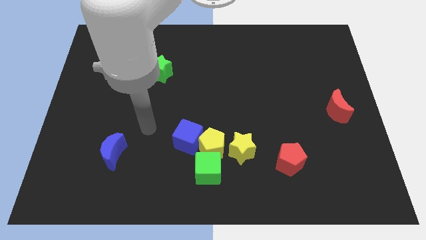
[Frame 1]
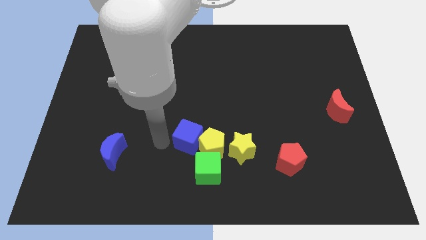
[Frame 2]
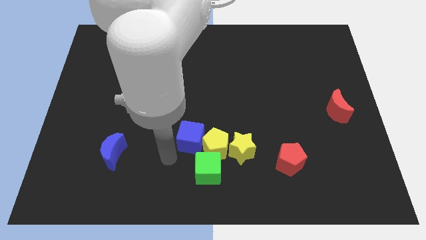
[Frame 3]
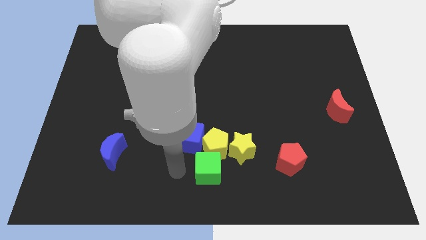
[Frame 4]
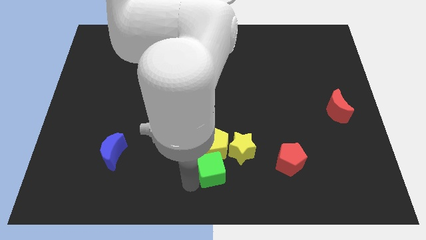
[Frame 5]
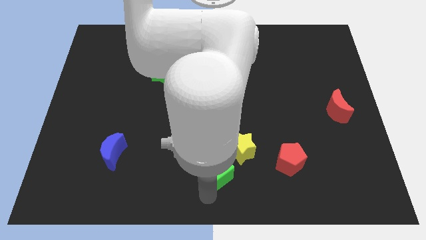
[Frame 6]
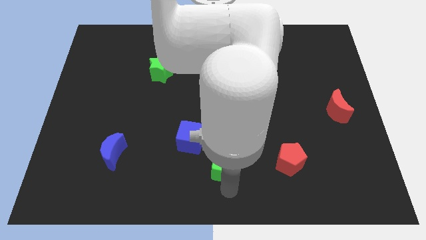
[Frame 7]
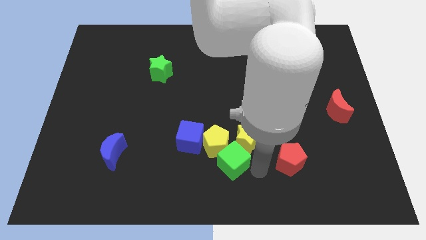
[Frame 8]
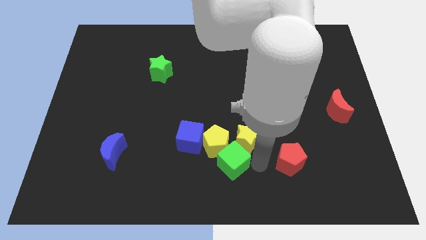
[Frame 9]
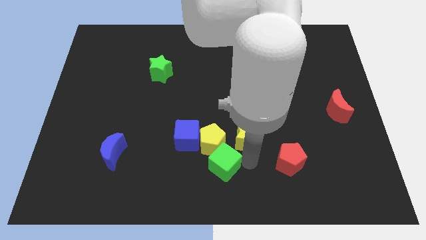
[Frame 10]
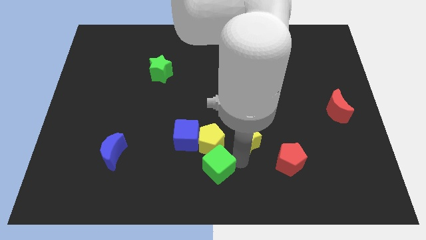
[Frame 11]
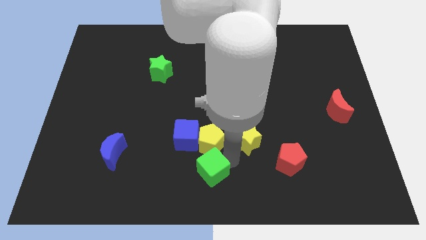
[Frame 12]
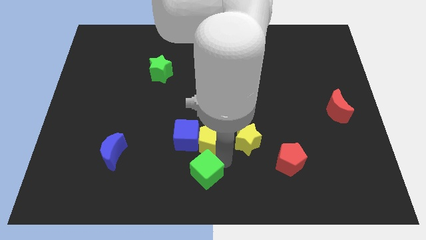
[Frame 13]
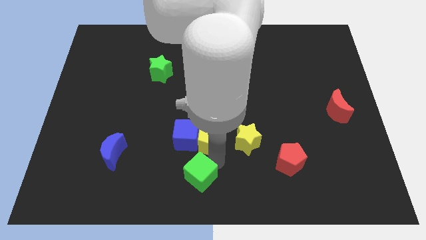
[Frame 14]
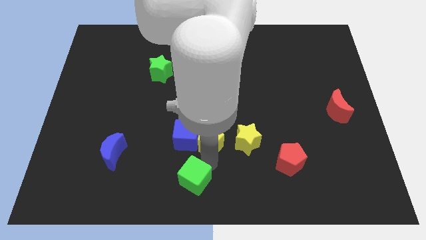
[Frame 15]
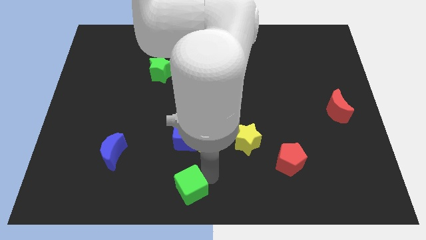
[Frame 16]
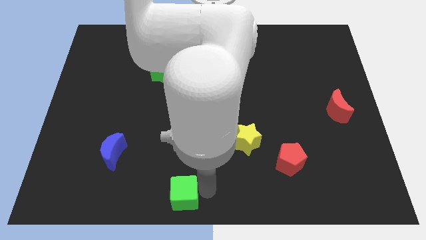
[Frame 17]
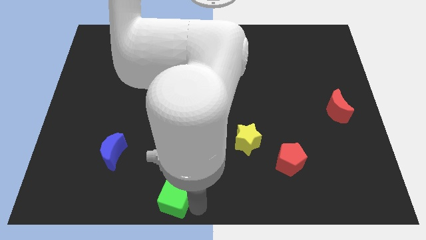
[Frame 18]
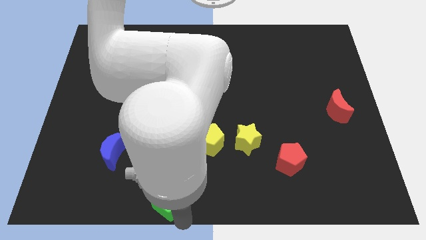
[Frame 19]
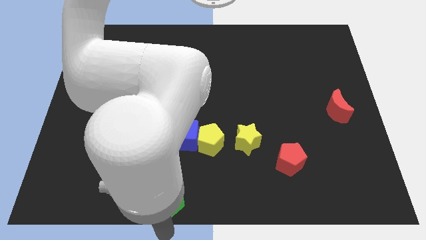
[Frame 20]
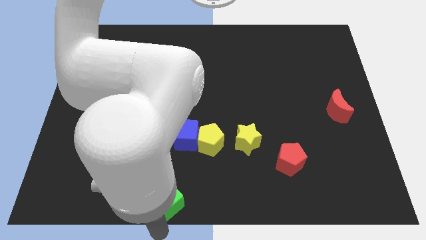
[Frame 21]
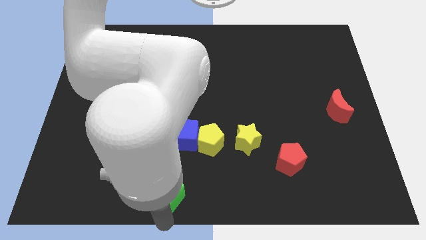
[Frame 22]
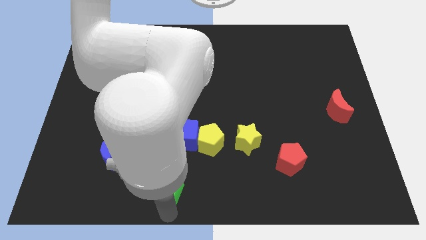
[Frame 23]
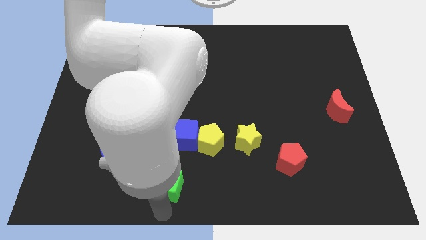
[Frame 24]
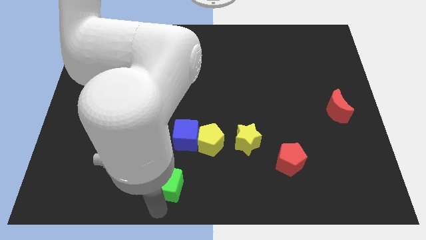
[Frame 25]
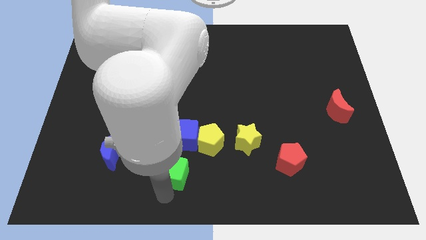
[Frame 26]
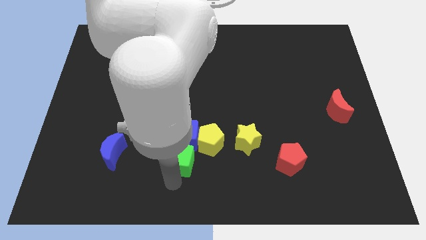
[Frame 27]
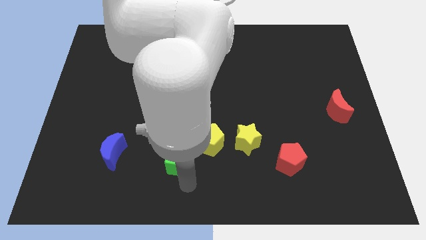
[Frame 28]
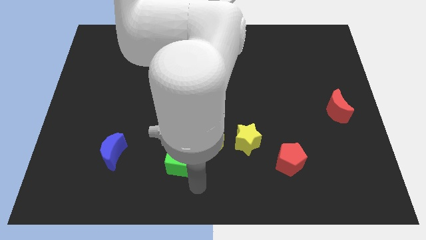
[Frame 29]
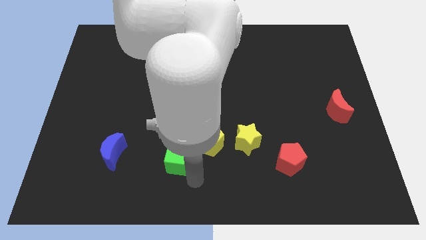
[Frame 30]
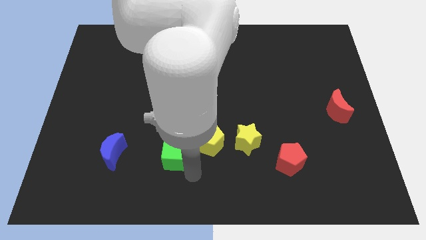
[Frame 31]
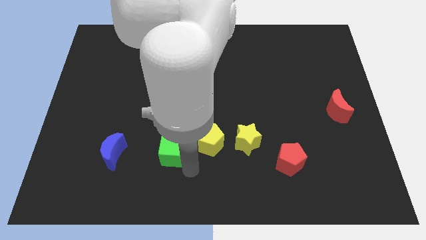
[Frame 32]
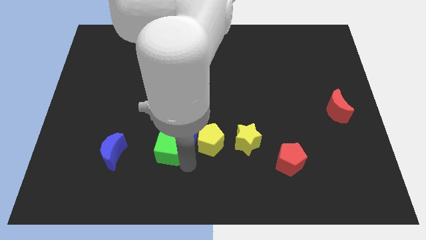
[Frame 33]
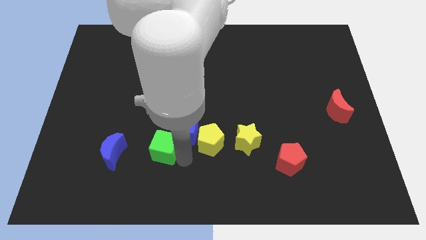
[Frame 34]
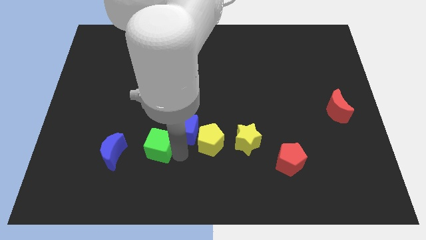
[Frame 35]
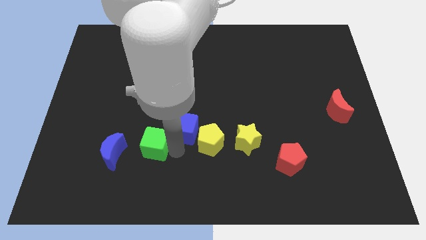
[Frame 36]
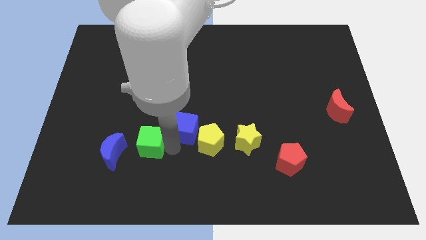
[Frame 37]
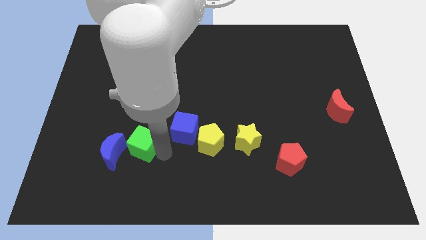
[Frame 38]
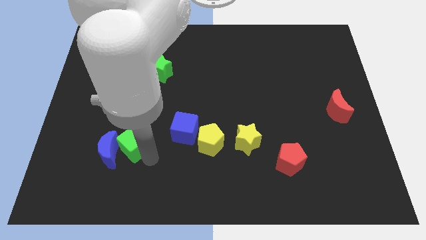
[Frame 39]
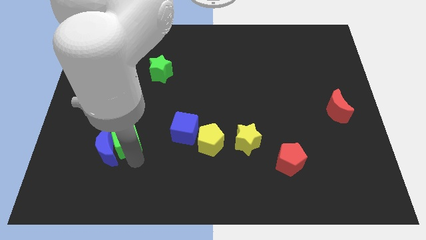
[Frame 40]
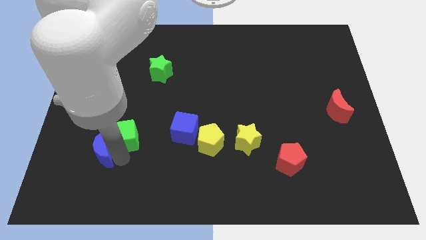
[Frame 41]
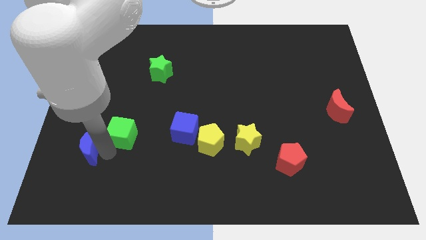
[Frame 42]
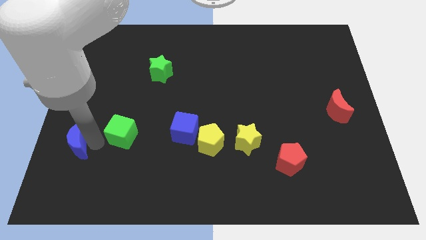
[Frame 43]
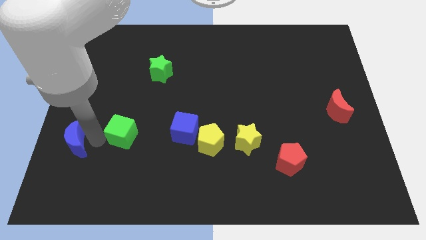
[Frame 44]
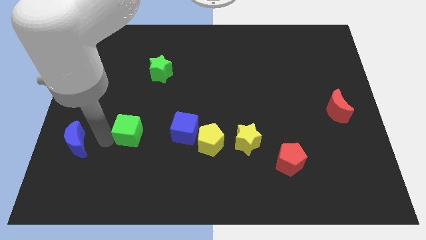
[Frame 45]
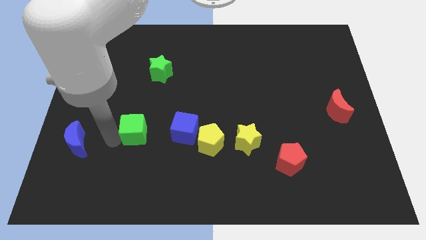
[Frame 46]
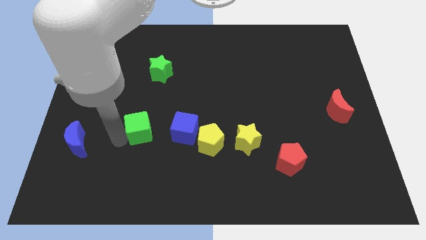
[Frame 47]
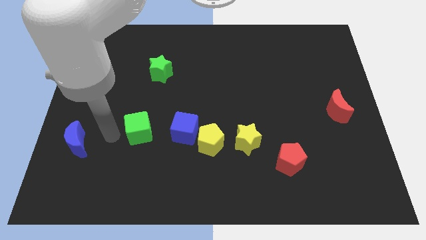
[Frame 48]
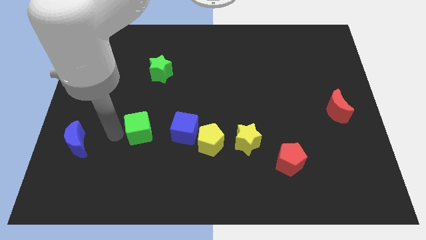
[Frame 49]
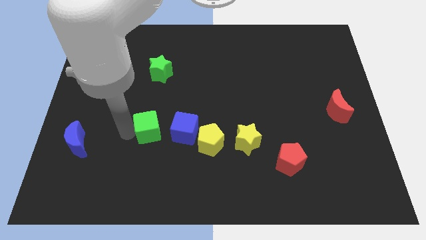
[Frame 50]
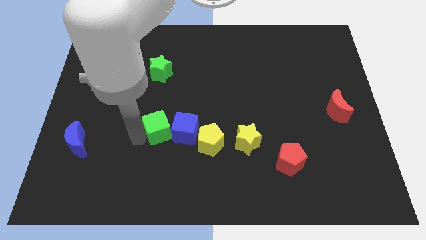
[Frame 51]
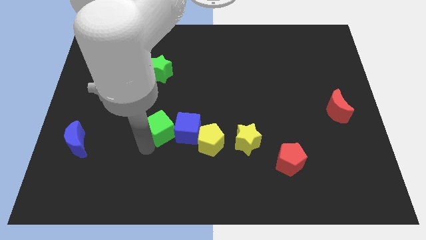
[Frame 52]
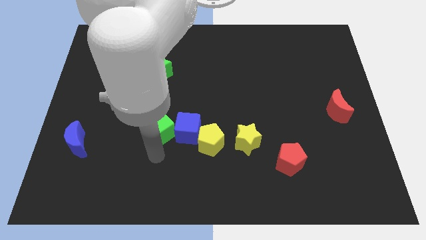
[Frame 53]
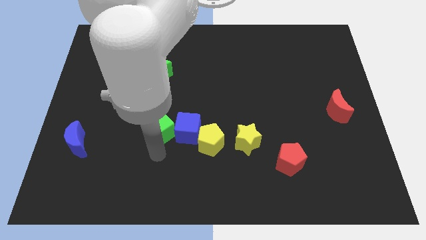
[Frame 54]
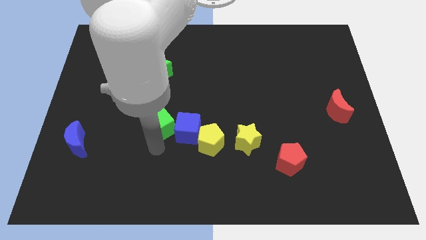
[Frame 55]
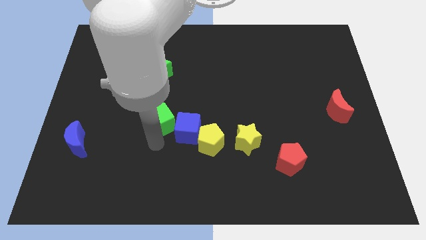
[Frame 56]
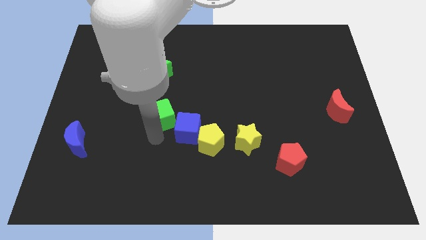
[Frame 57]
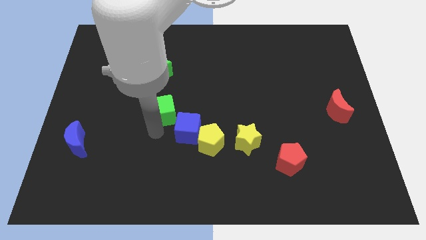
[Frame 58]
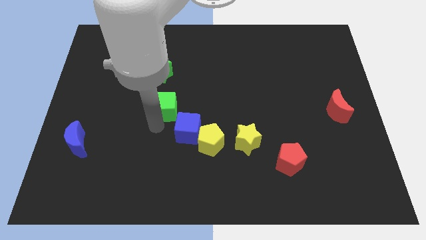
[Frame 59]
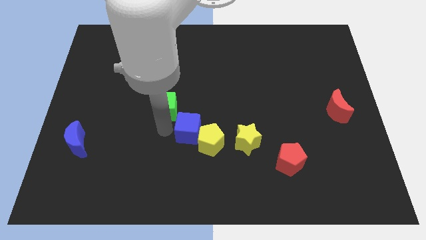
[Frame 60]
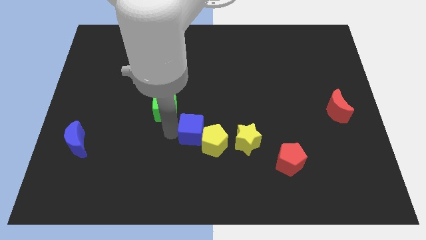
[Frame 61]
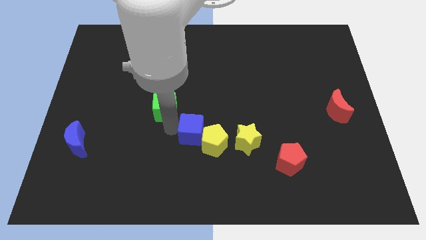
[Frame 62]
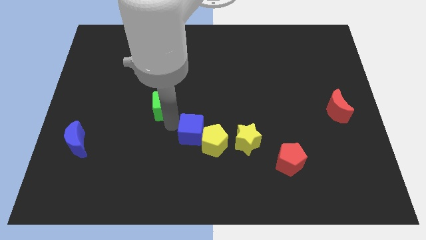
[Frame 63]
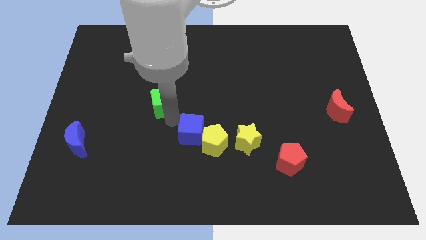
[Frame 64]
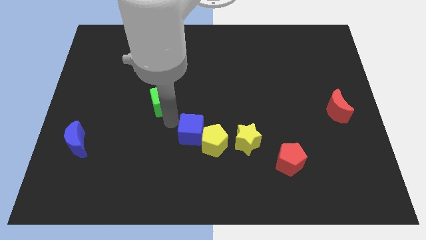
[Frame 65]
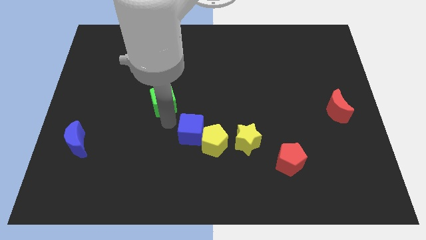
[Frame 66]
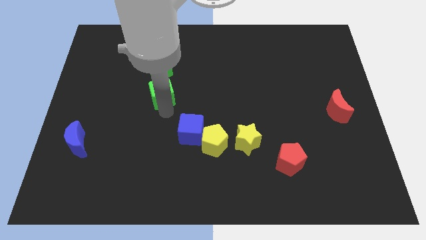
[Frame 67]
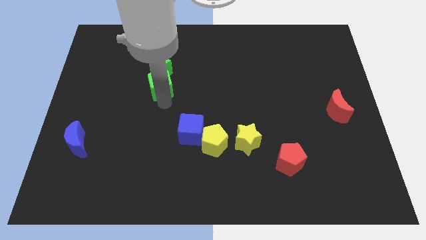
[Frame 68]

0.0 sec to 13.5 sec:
move the green cube to the green star

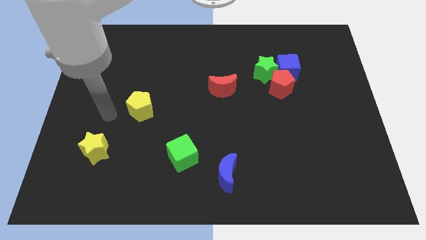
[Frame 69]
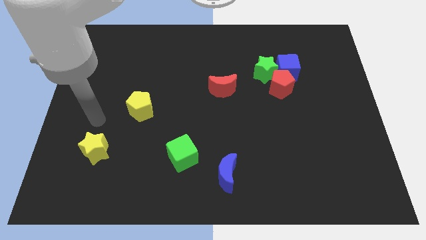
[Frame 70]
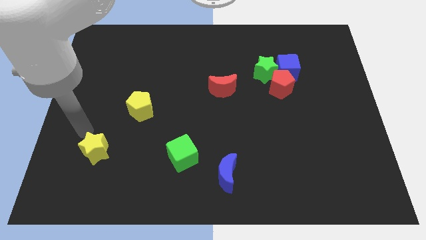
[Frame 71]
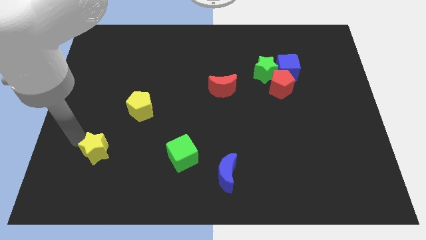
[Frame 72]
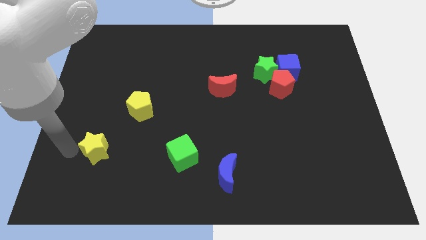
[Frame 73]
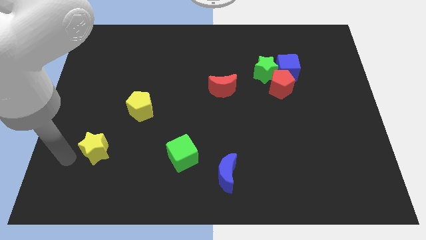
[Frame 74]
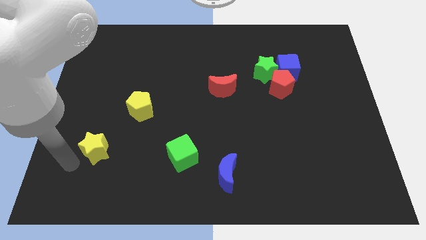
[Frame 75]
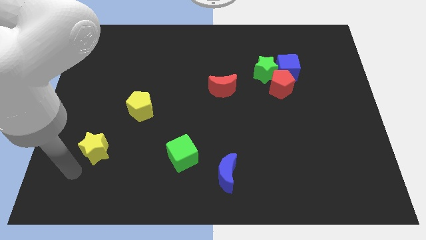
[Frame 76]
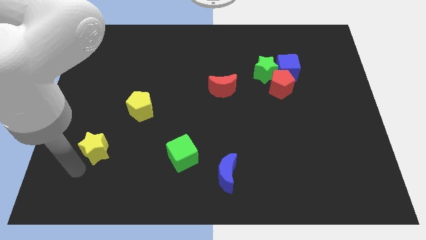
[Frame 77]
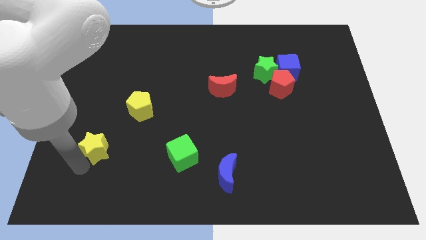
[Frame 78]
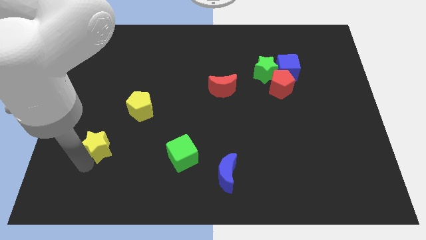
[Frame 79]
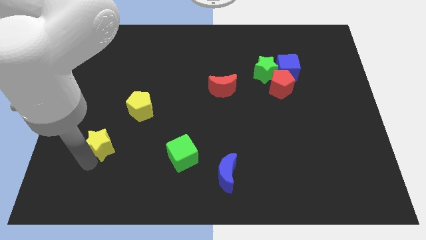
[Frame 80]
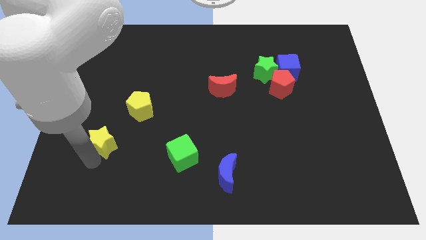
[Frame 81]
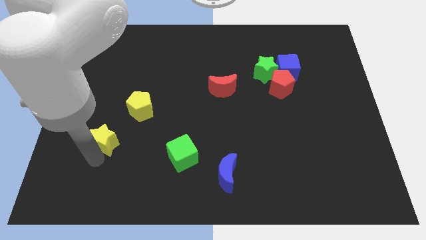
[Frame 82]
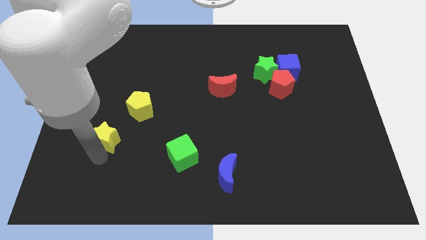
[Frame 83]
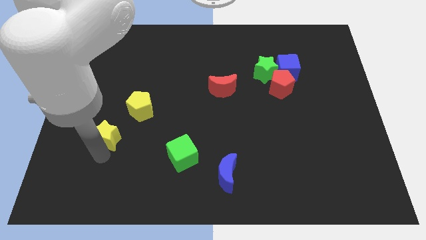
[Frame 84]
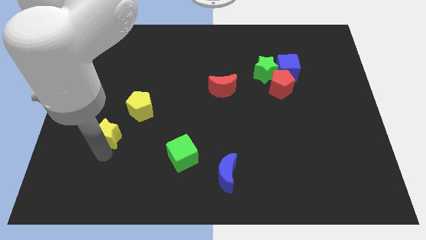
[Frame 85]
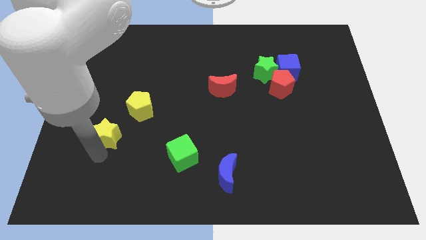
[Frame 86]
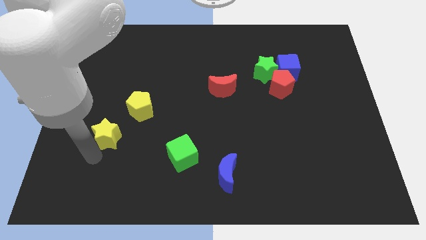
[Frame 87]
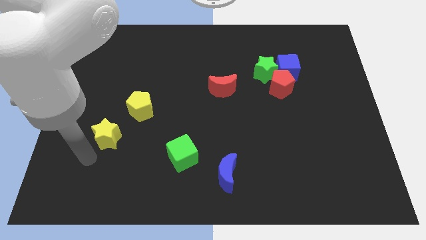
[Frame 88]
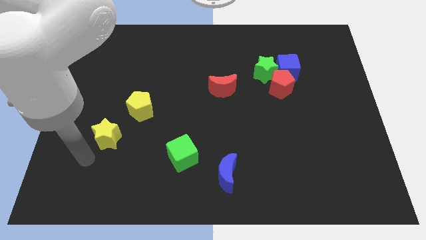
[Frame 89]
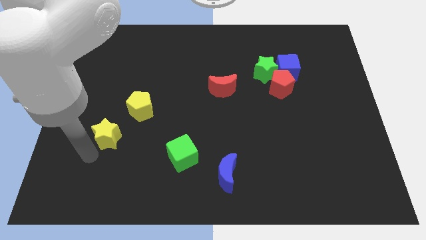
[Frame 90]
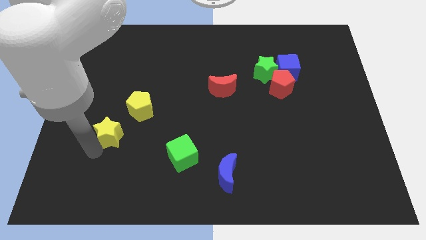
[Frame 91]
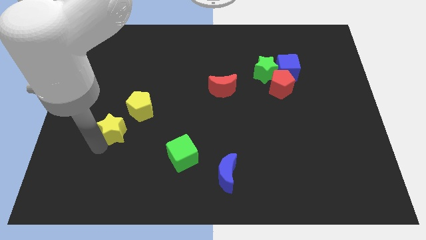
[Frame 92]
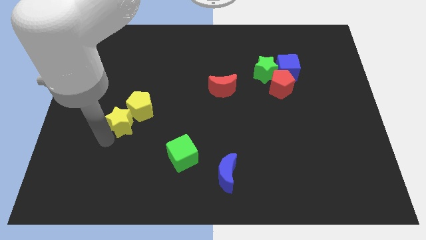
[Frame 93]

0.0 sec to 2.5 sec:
slide the yellow star close to the yellow pentagon
